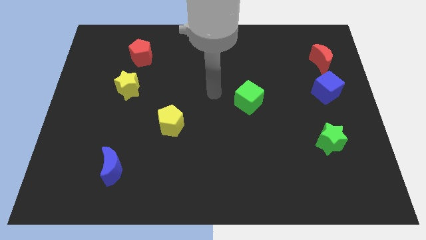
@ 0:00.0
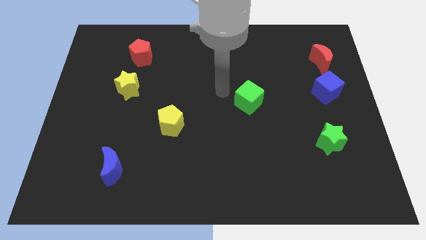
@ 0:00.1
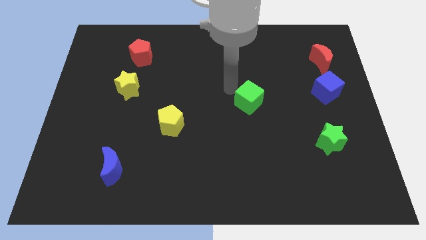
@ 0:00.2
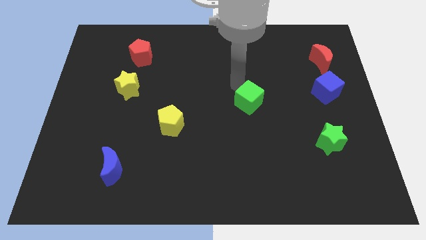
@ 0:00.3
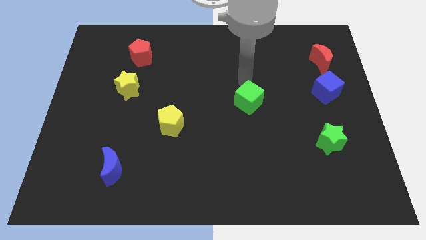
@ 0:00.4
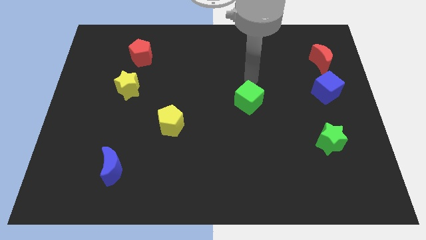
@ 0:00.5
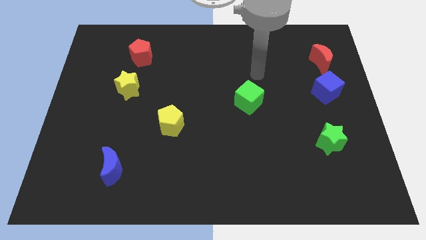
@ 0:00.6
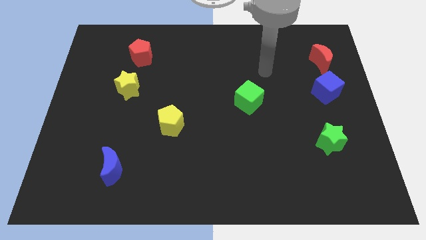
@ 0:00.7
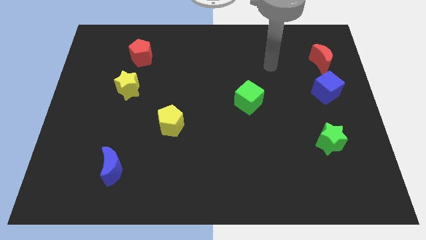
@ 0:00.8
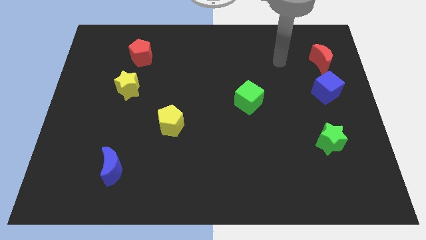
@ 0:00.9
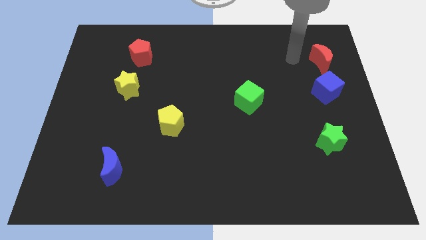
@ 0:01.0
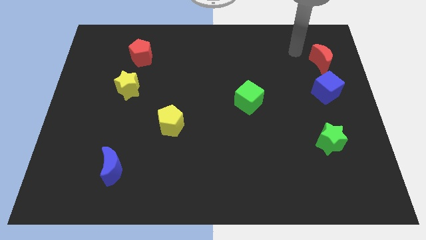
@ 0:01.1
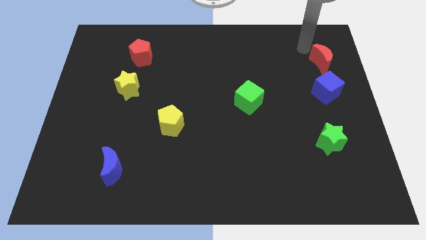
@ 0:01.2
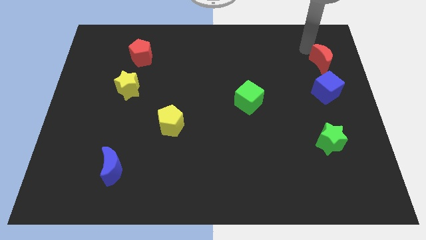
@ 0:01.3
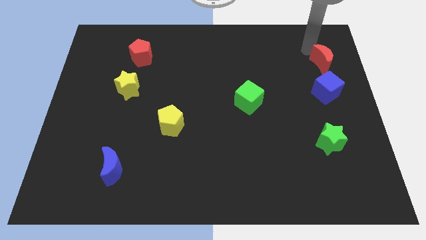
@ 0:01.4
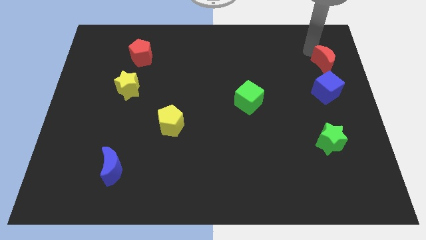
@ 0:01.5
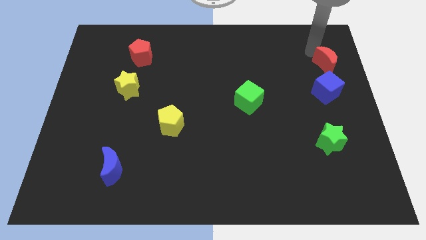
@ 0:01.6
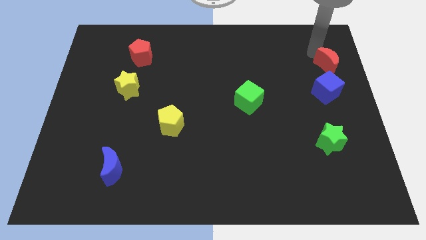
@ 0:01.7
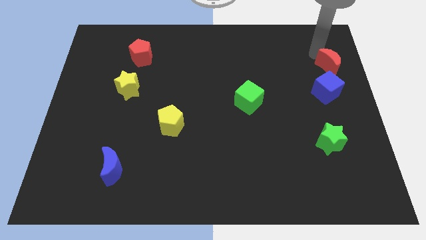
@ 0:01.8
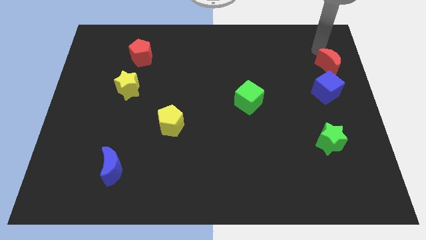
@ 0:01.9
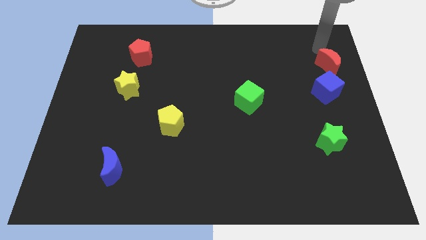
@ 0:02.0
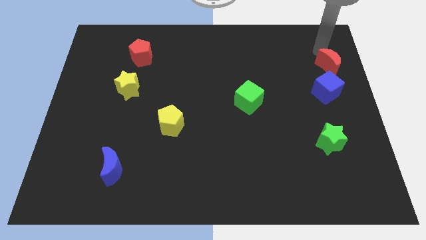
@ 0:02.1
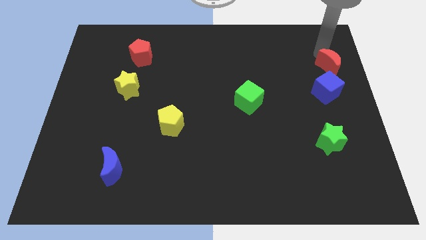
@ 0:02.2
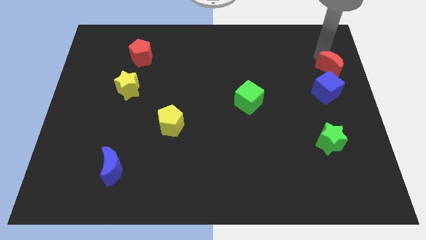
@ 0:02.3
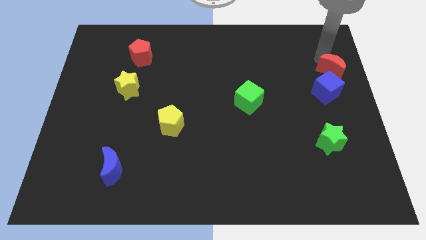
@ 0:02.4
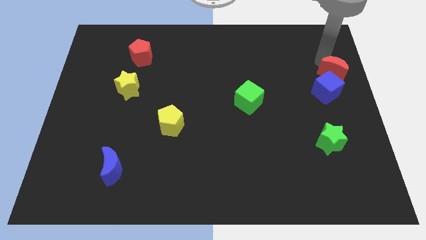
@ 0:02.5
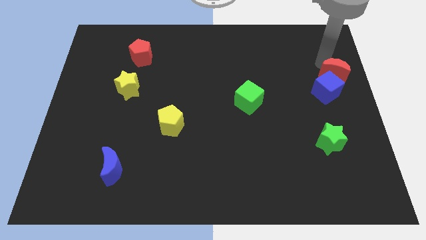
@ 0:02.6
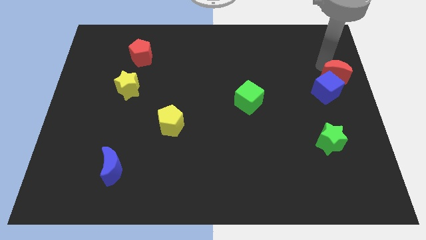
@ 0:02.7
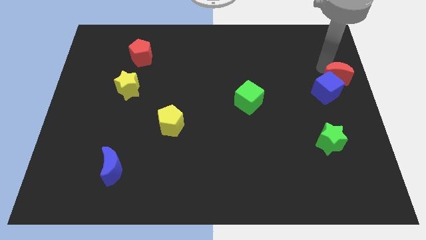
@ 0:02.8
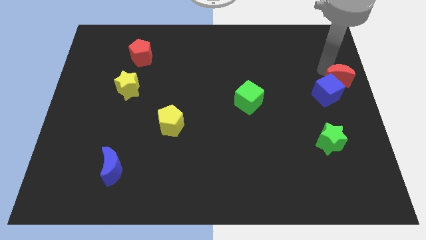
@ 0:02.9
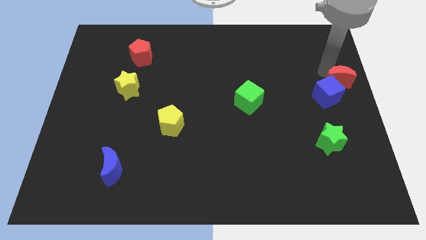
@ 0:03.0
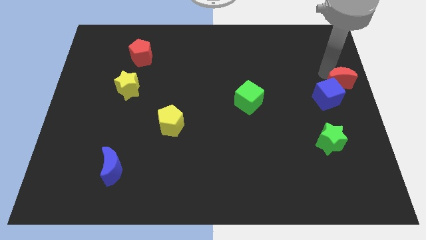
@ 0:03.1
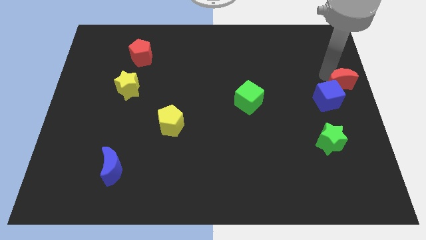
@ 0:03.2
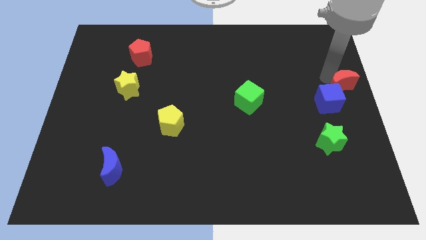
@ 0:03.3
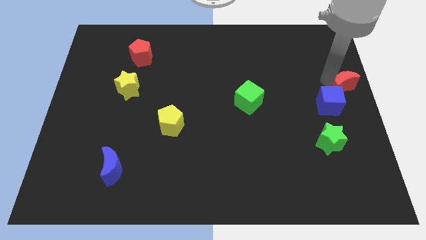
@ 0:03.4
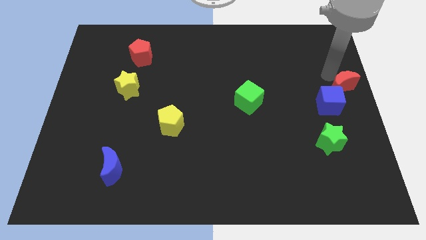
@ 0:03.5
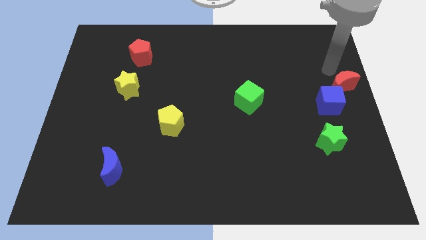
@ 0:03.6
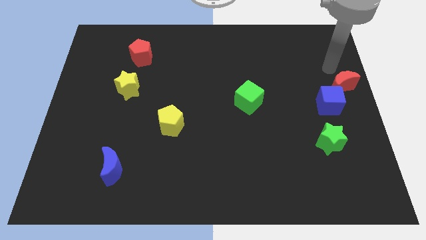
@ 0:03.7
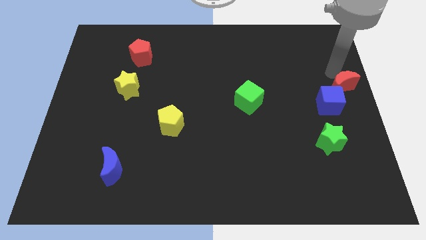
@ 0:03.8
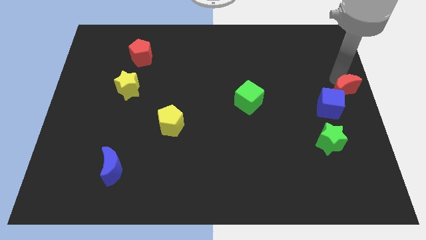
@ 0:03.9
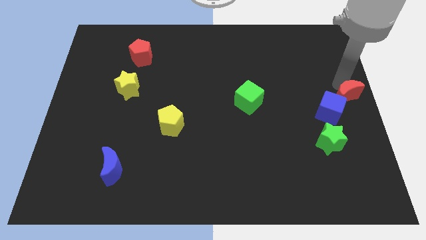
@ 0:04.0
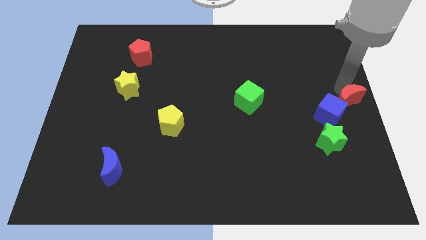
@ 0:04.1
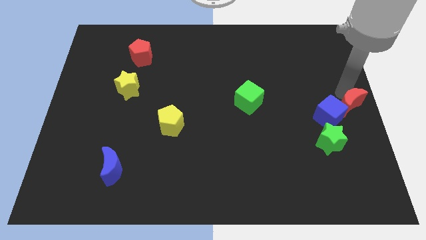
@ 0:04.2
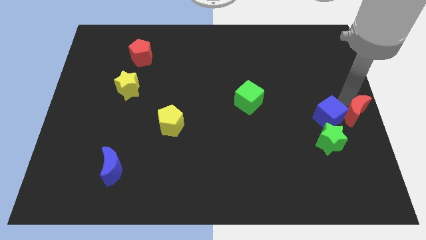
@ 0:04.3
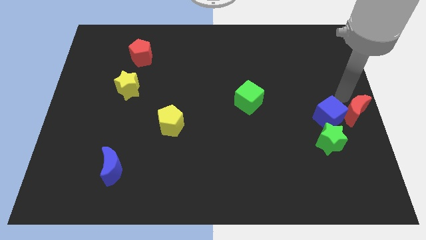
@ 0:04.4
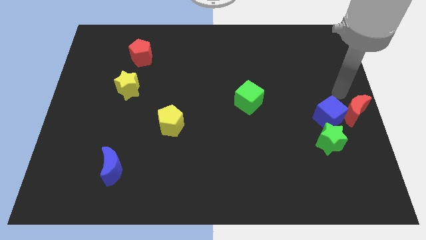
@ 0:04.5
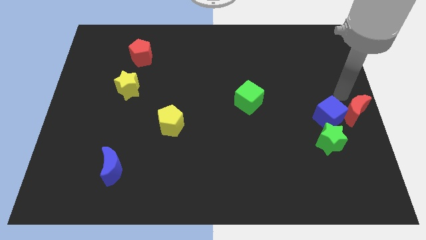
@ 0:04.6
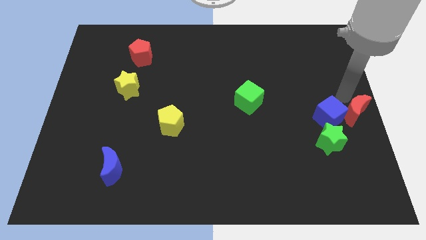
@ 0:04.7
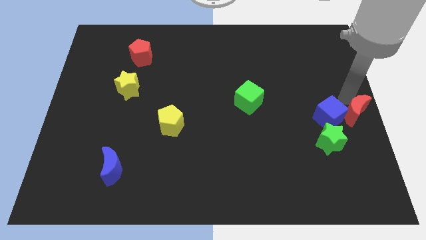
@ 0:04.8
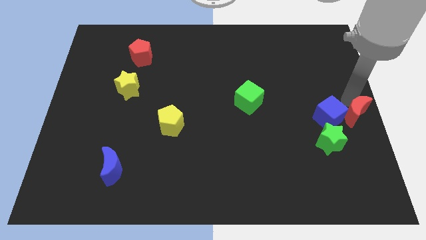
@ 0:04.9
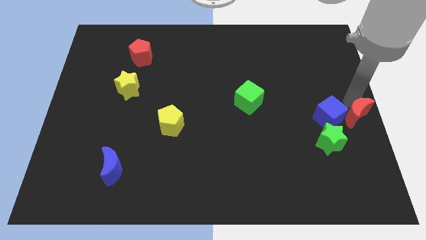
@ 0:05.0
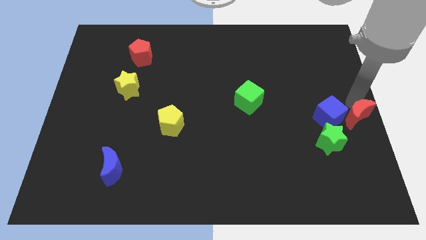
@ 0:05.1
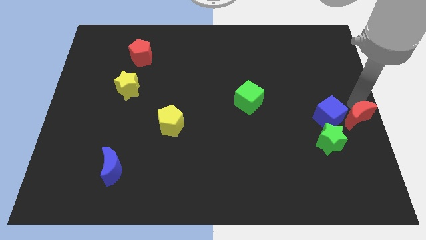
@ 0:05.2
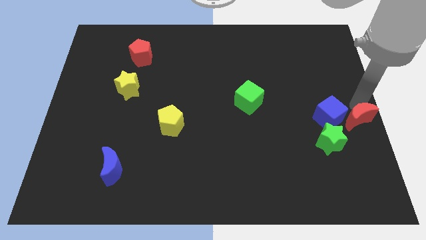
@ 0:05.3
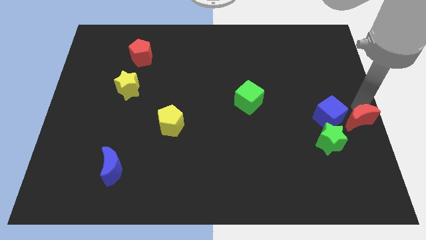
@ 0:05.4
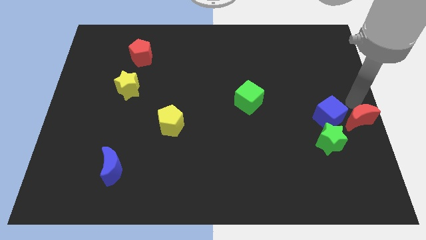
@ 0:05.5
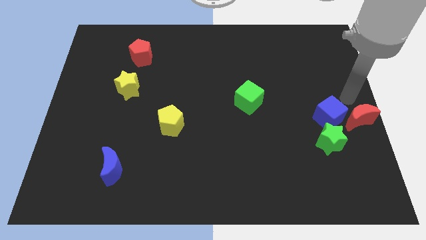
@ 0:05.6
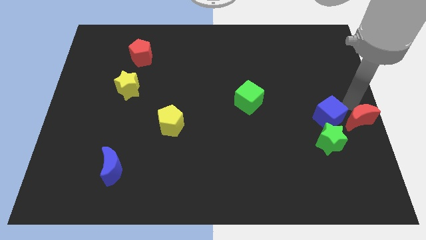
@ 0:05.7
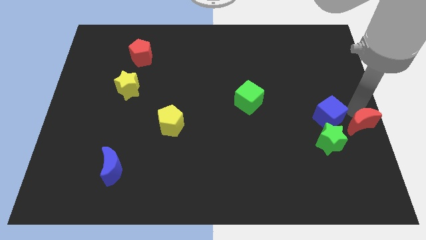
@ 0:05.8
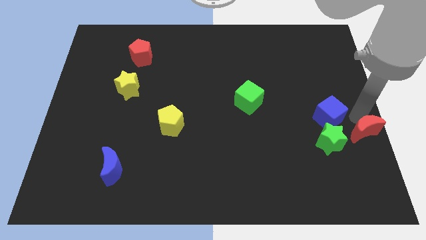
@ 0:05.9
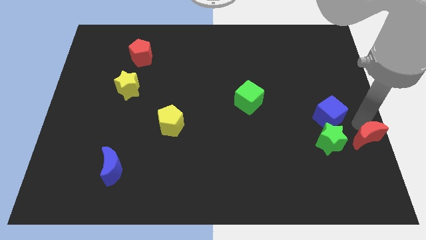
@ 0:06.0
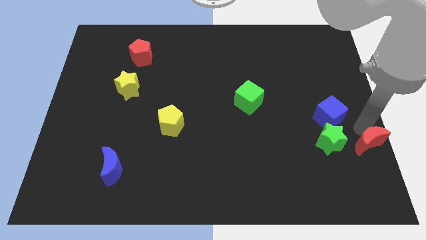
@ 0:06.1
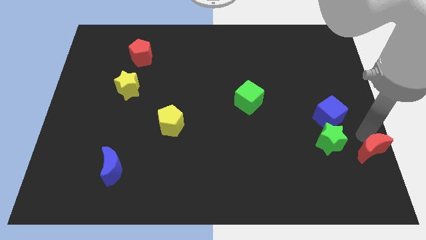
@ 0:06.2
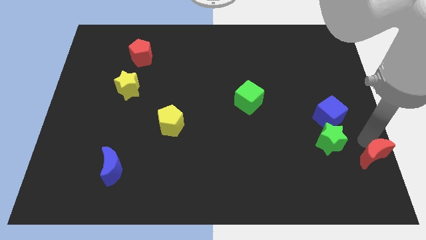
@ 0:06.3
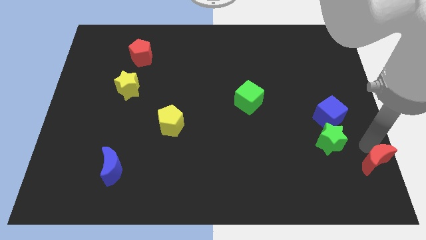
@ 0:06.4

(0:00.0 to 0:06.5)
move the red moon to the bottom right corner
